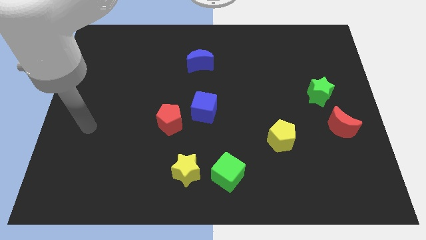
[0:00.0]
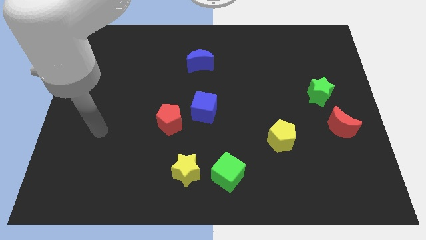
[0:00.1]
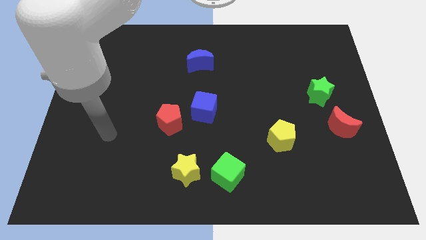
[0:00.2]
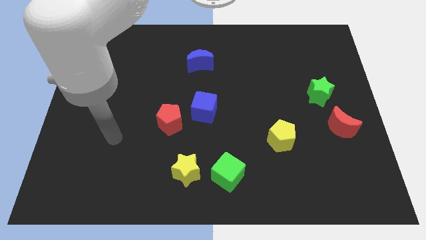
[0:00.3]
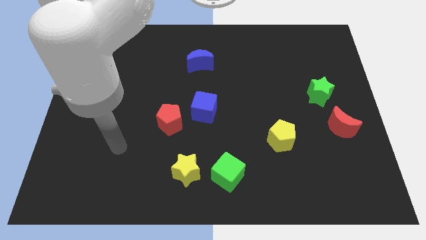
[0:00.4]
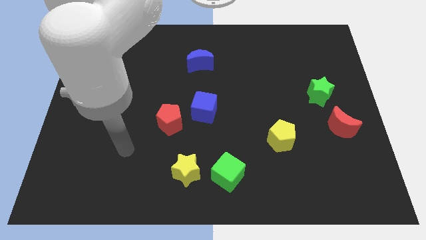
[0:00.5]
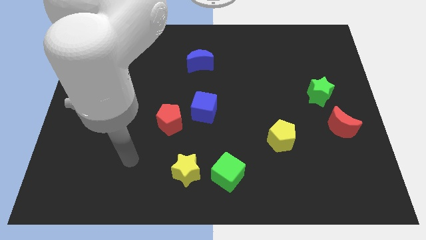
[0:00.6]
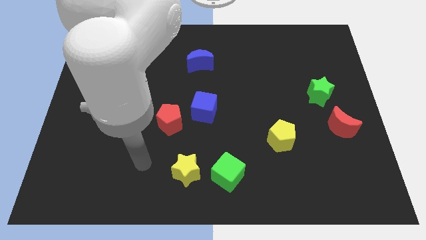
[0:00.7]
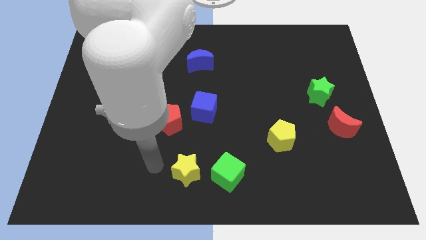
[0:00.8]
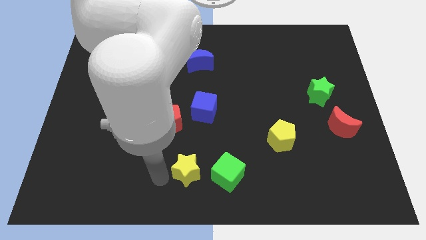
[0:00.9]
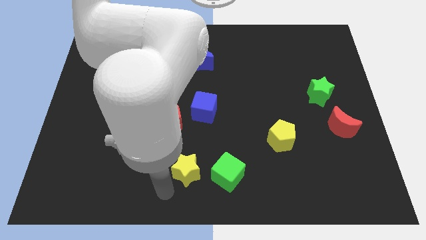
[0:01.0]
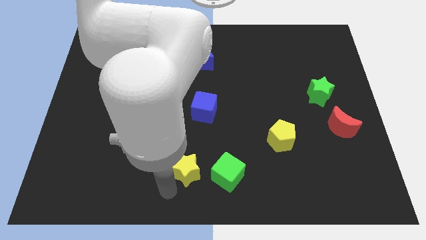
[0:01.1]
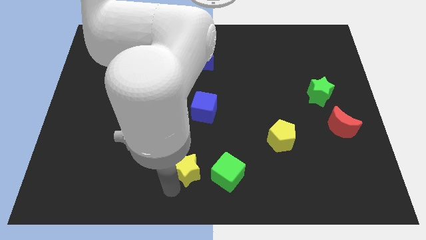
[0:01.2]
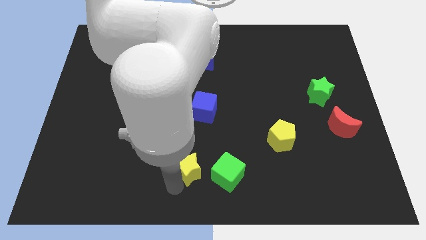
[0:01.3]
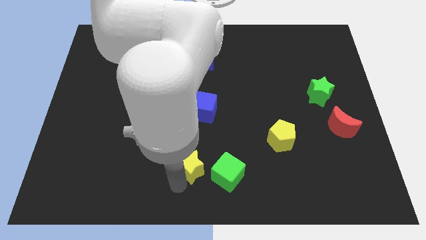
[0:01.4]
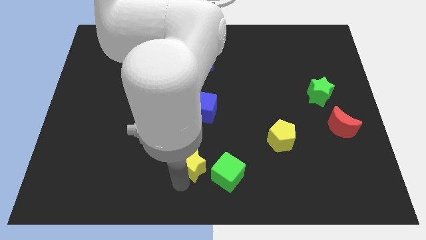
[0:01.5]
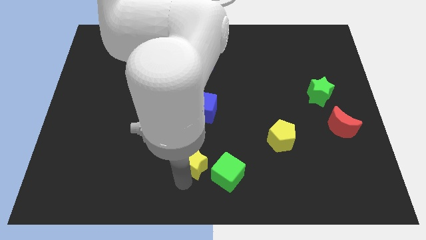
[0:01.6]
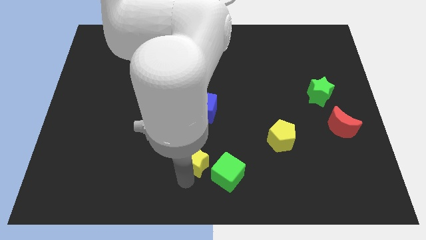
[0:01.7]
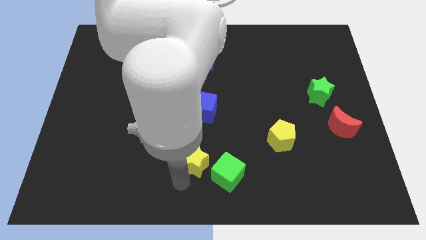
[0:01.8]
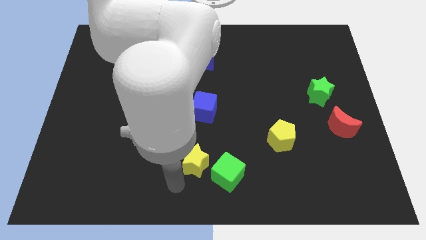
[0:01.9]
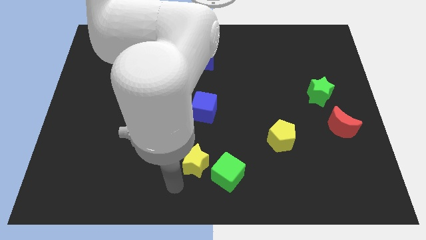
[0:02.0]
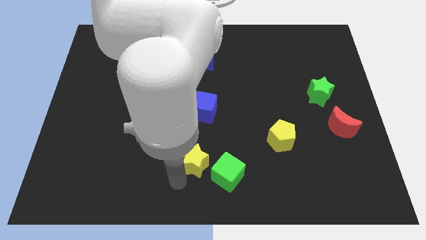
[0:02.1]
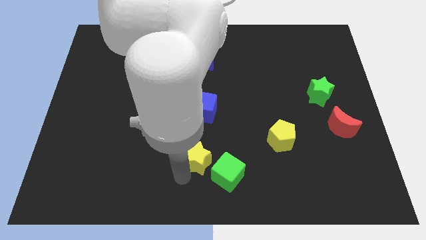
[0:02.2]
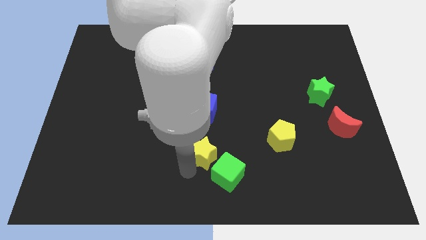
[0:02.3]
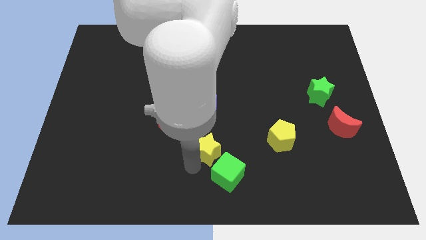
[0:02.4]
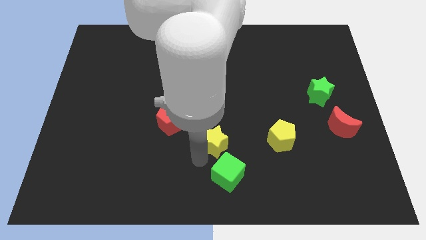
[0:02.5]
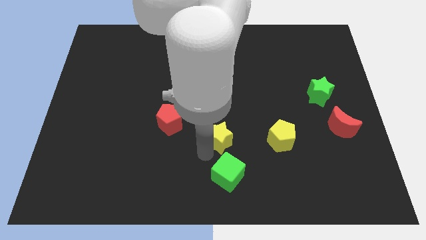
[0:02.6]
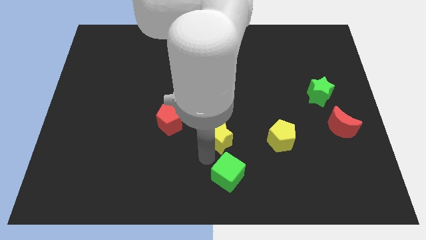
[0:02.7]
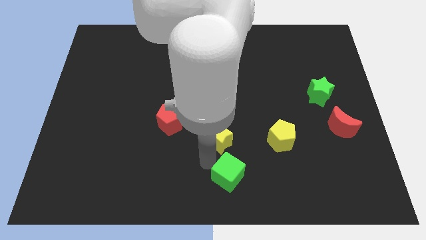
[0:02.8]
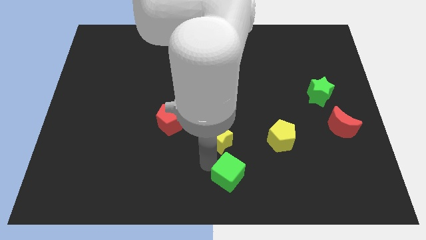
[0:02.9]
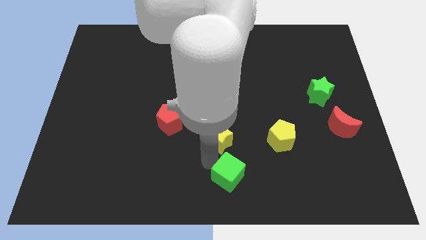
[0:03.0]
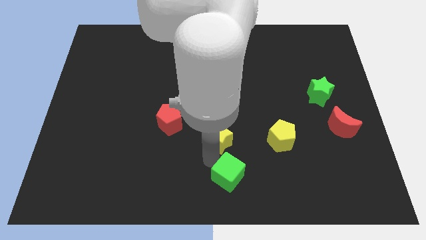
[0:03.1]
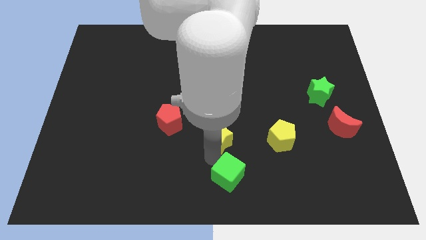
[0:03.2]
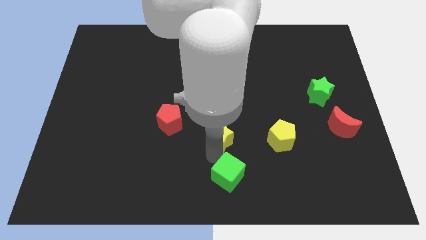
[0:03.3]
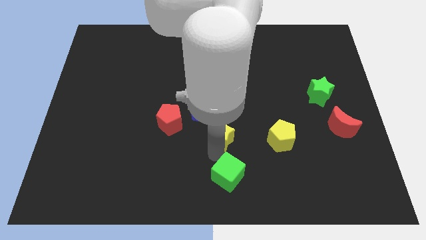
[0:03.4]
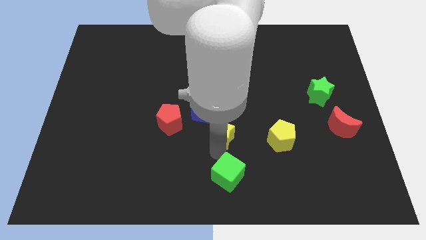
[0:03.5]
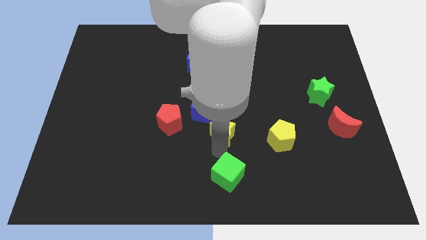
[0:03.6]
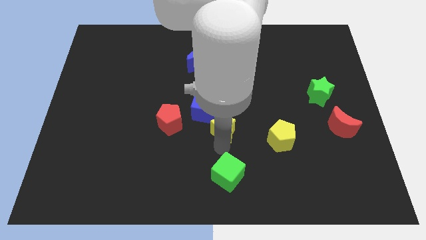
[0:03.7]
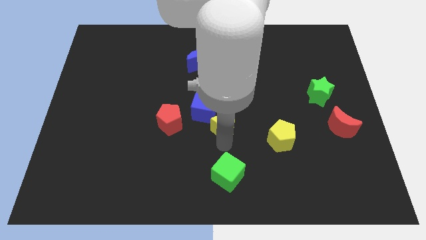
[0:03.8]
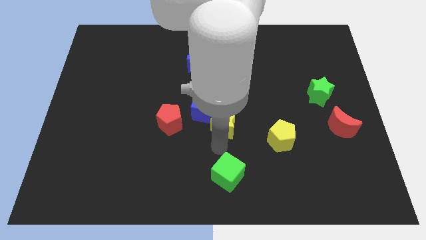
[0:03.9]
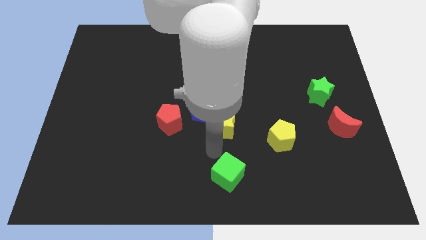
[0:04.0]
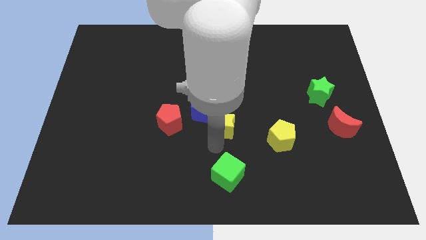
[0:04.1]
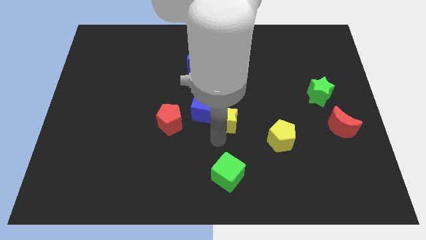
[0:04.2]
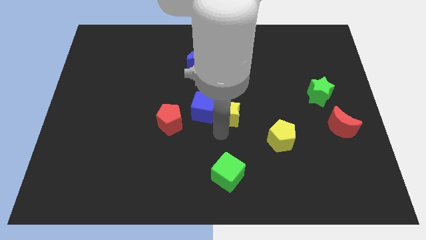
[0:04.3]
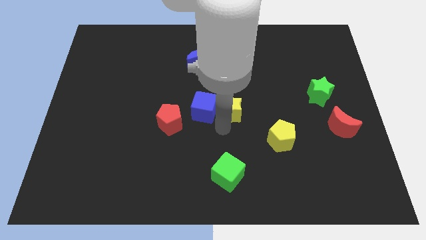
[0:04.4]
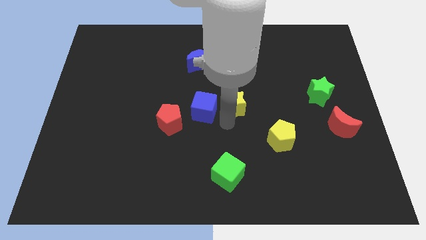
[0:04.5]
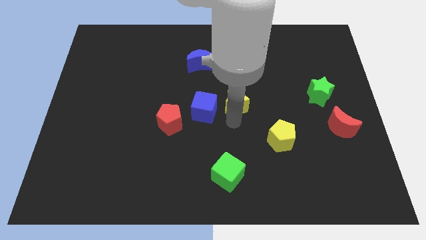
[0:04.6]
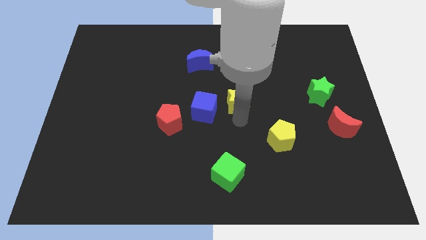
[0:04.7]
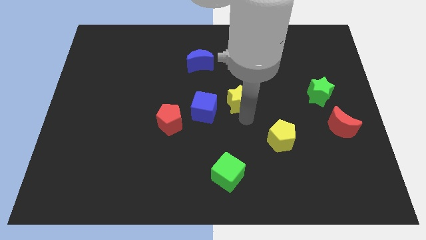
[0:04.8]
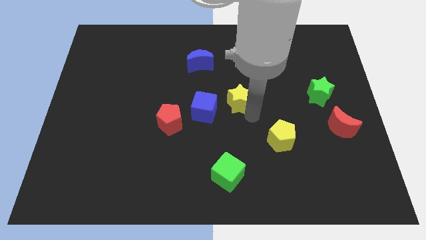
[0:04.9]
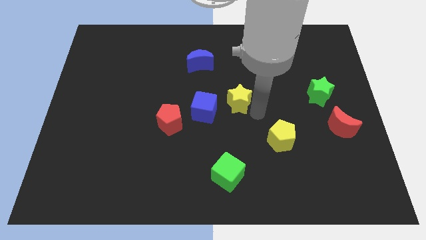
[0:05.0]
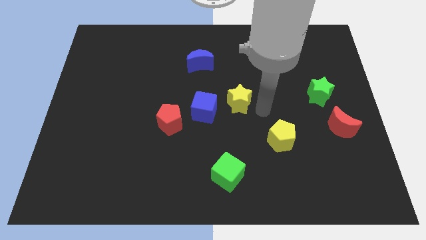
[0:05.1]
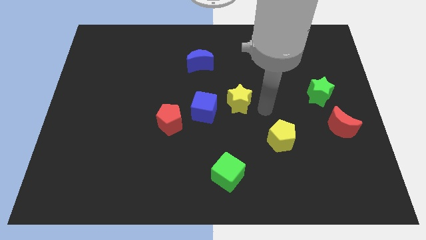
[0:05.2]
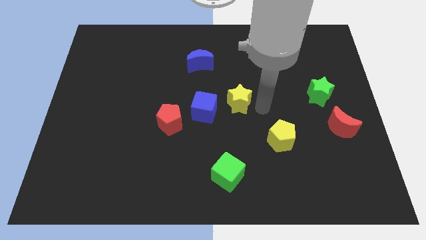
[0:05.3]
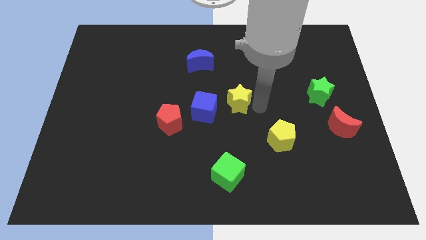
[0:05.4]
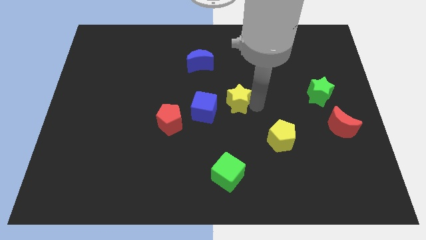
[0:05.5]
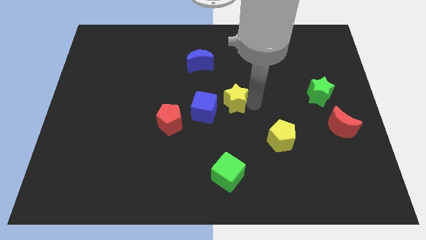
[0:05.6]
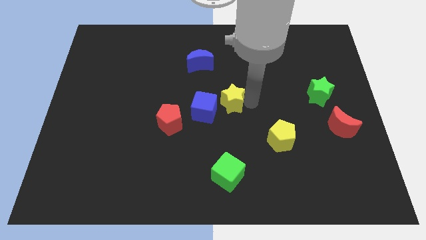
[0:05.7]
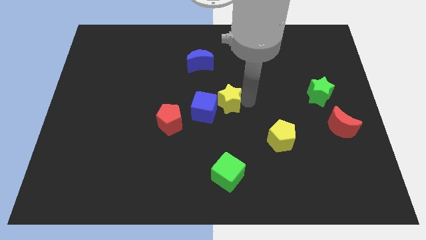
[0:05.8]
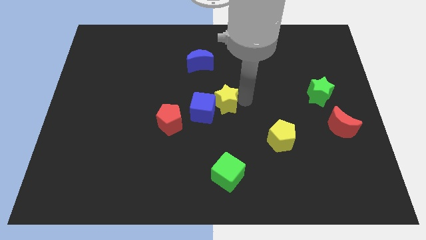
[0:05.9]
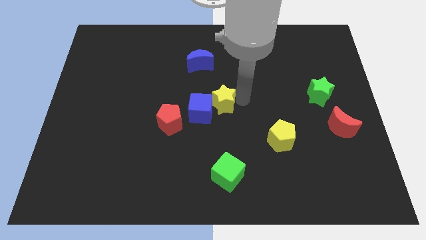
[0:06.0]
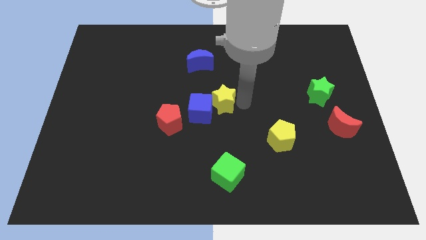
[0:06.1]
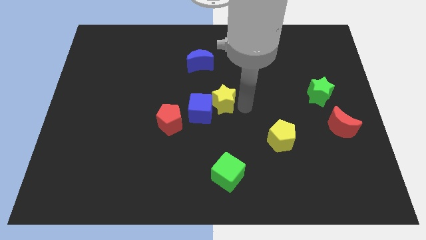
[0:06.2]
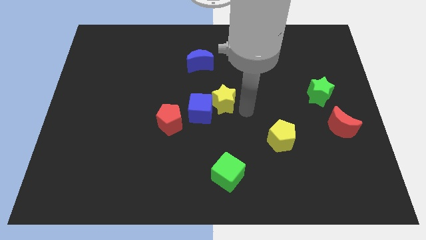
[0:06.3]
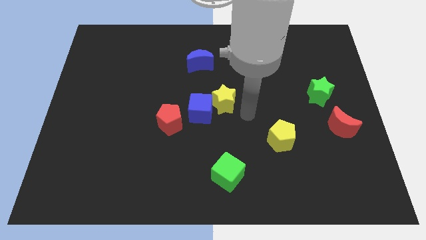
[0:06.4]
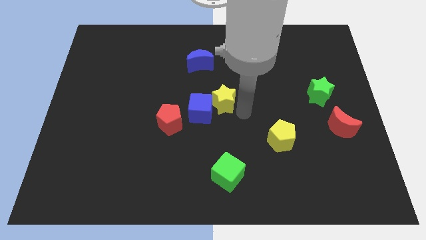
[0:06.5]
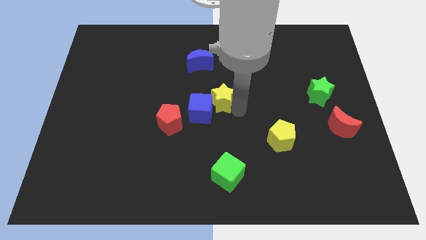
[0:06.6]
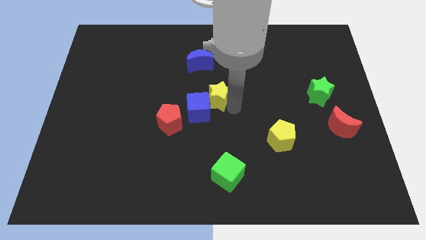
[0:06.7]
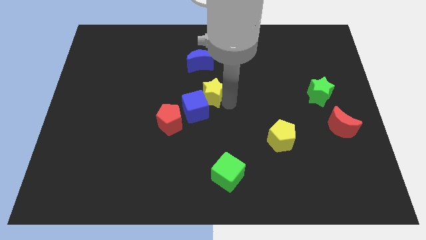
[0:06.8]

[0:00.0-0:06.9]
move the yellow star diagonally up and to the right of the red pentagon

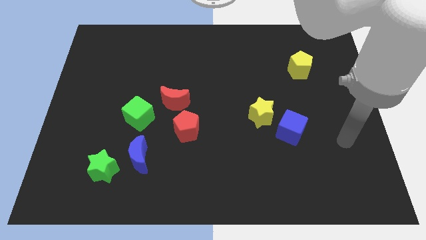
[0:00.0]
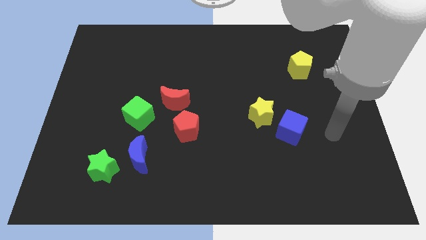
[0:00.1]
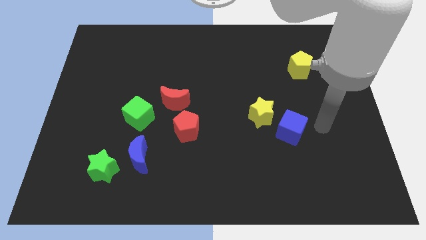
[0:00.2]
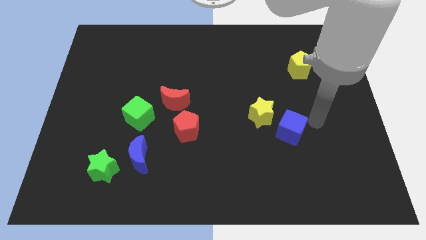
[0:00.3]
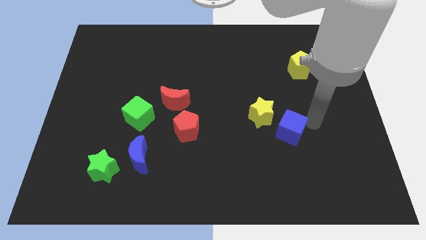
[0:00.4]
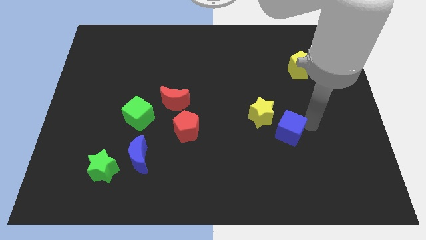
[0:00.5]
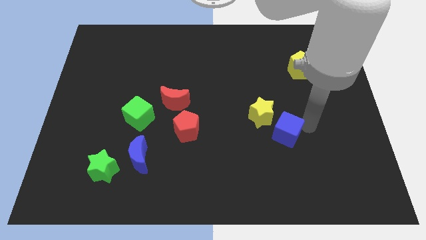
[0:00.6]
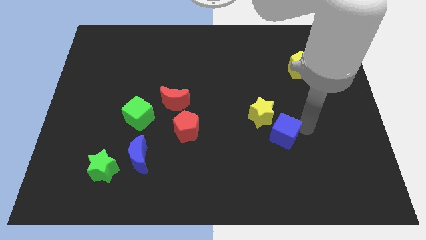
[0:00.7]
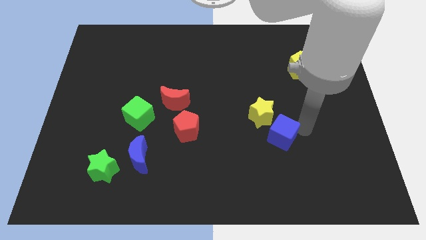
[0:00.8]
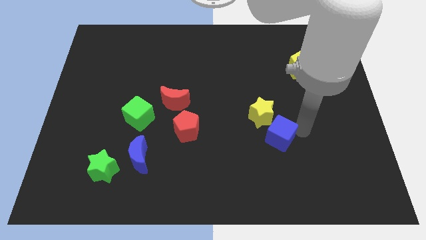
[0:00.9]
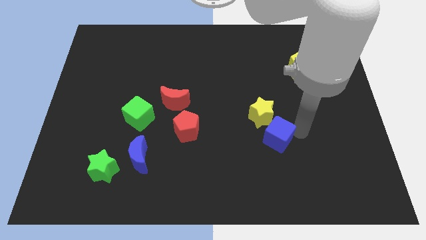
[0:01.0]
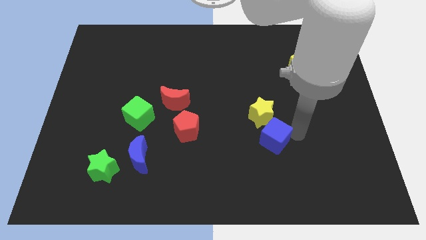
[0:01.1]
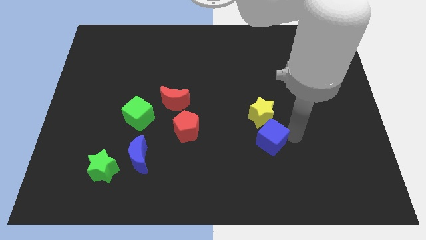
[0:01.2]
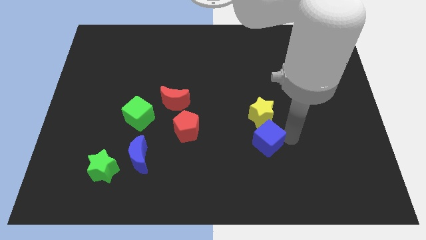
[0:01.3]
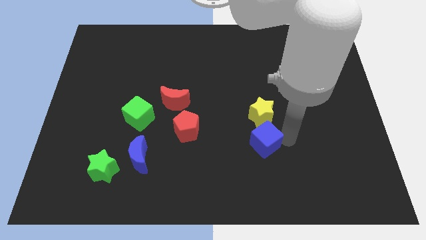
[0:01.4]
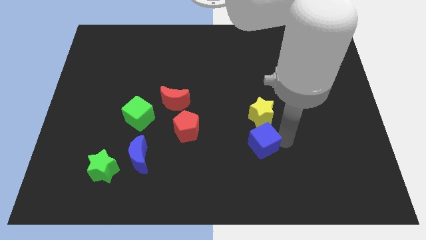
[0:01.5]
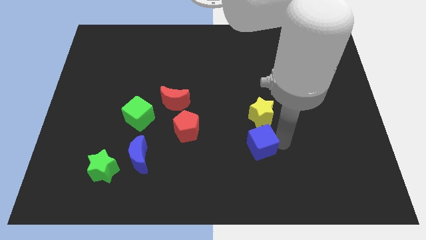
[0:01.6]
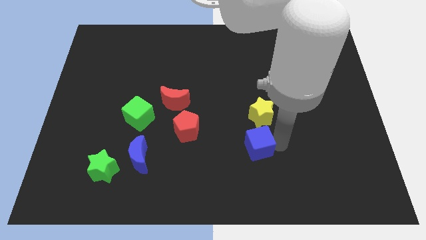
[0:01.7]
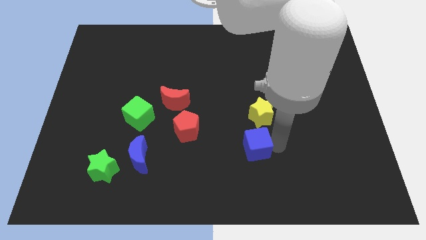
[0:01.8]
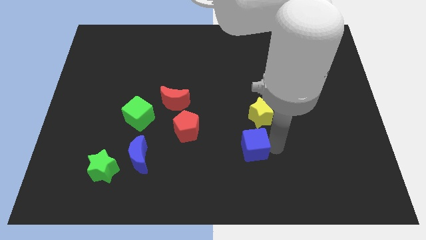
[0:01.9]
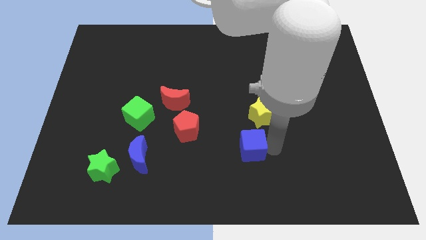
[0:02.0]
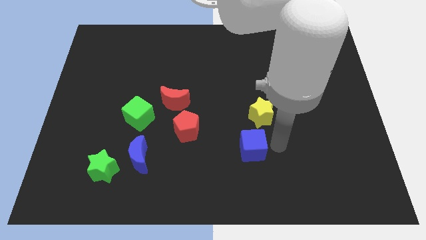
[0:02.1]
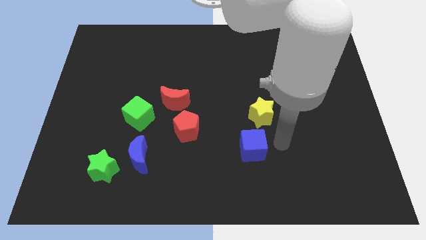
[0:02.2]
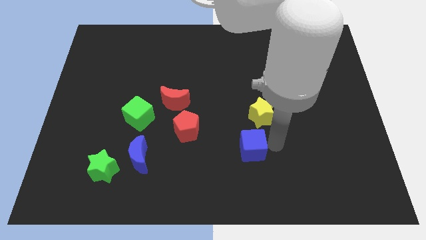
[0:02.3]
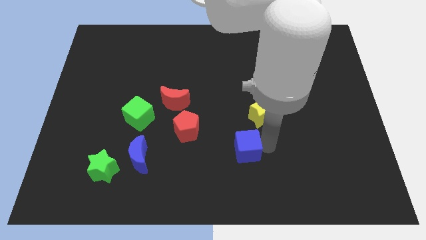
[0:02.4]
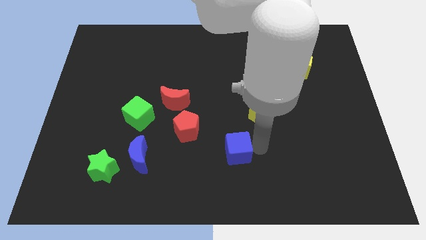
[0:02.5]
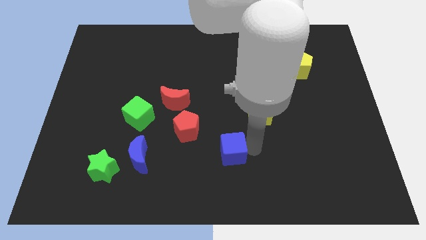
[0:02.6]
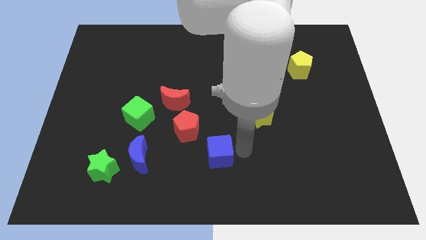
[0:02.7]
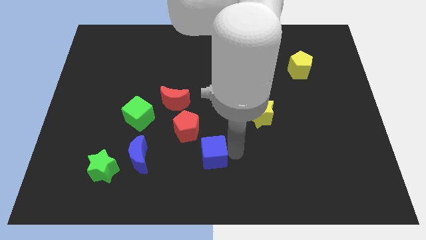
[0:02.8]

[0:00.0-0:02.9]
push the blue cube just right of the blue moon
